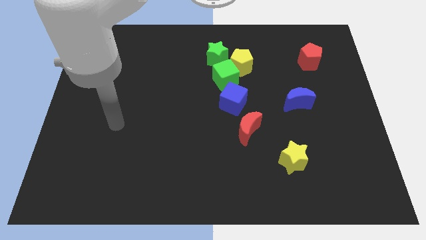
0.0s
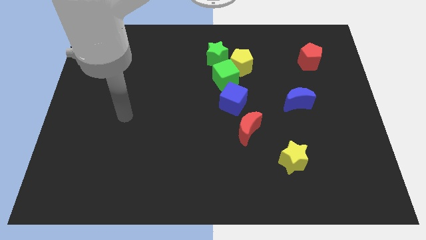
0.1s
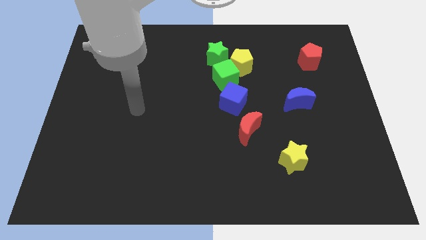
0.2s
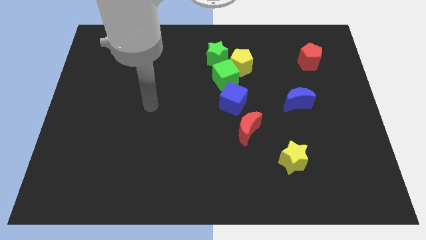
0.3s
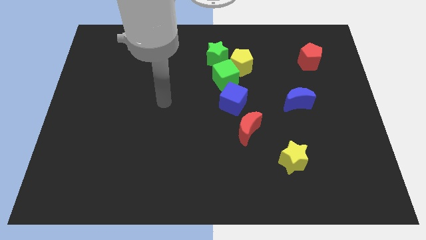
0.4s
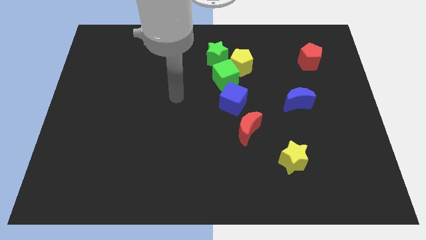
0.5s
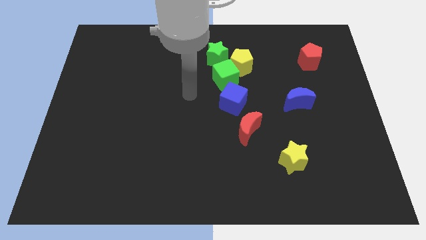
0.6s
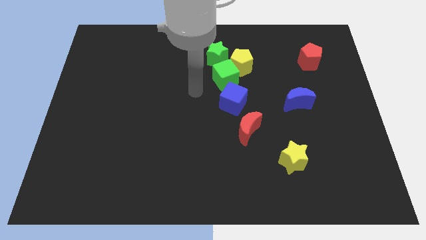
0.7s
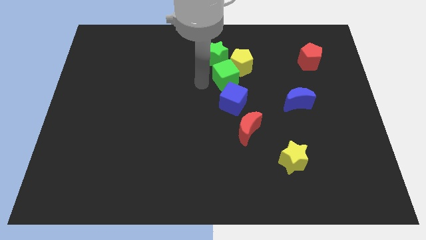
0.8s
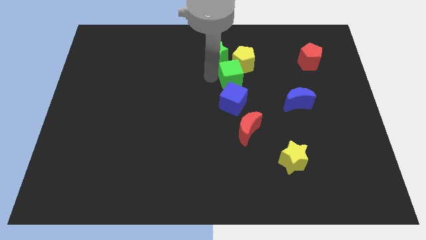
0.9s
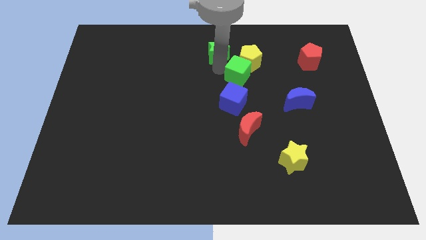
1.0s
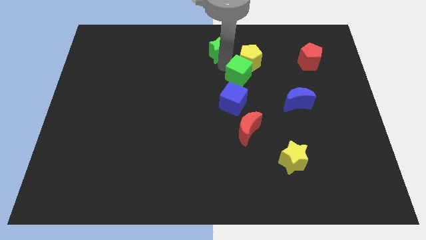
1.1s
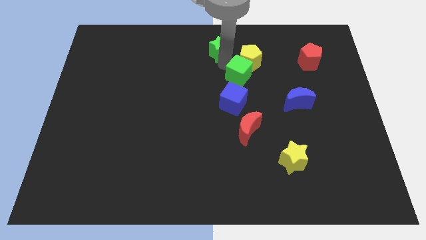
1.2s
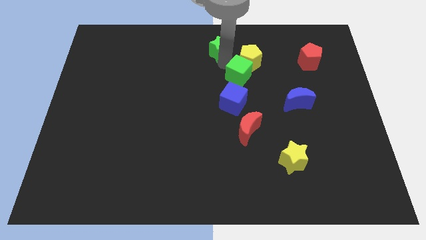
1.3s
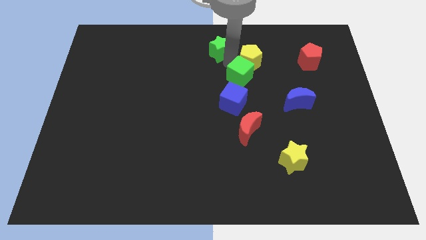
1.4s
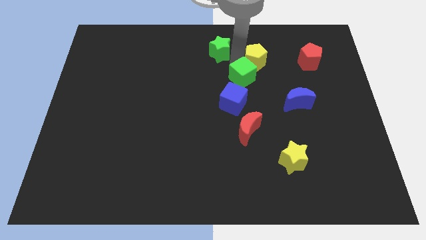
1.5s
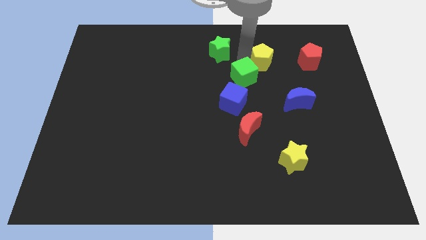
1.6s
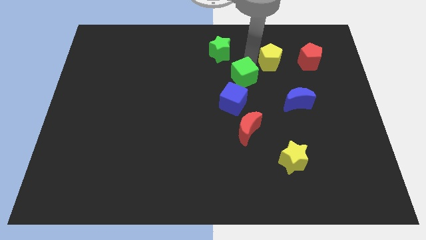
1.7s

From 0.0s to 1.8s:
pull the yellow pentagon apart from the green cube and green star

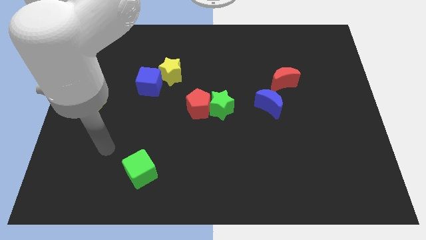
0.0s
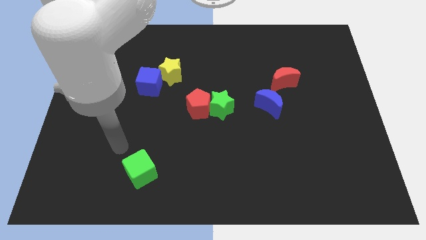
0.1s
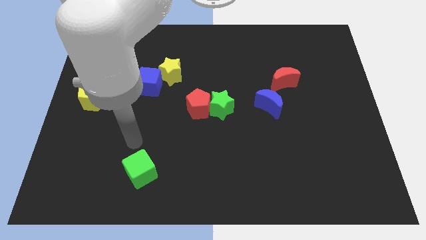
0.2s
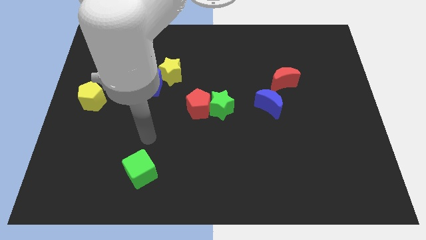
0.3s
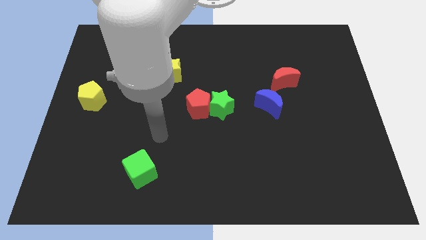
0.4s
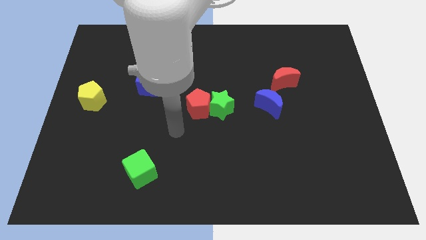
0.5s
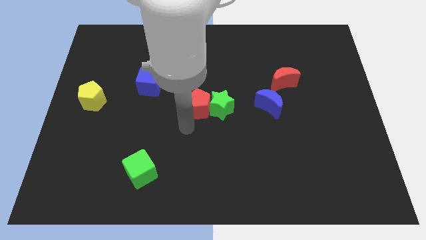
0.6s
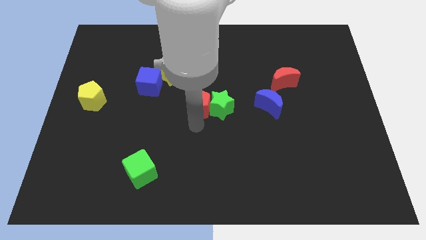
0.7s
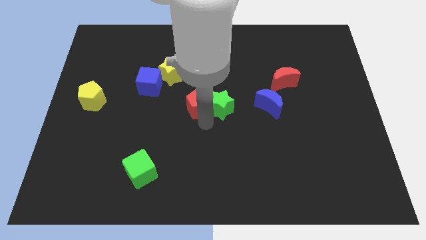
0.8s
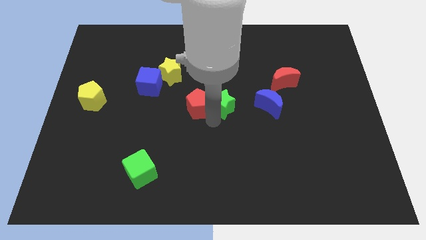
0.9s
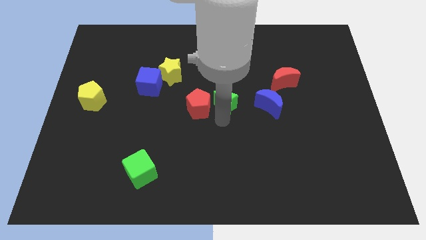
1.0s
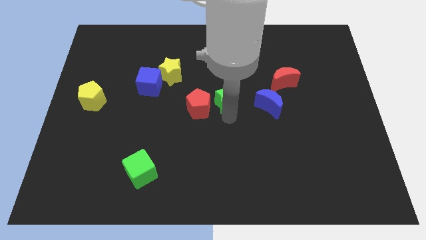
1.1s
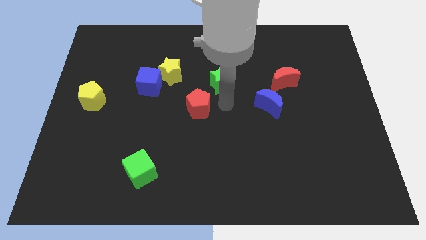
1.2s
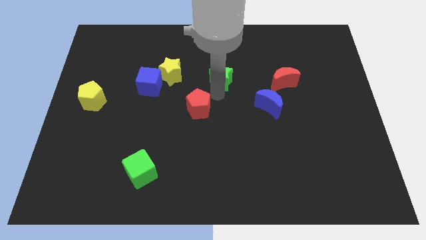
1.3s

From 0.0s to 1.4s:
separate the red pentagon from the green star

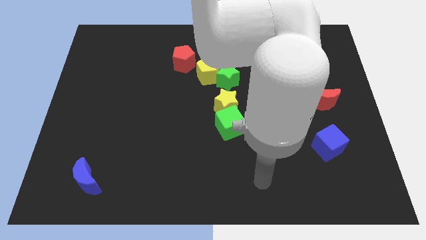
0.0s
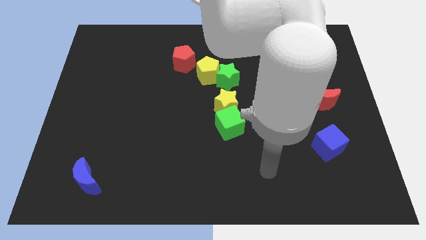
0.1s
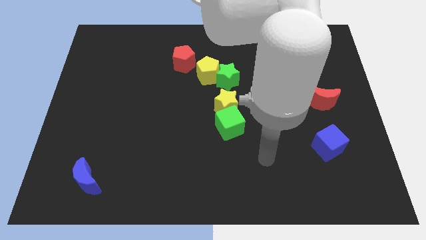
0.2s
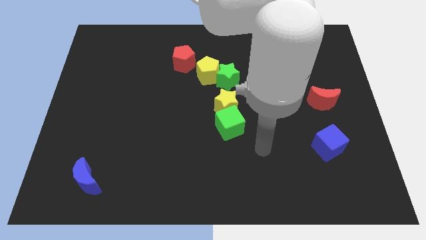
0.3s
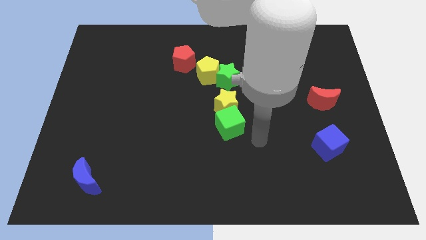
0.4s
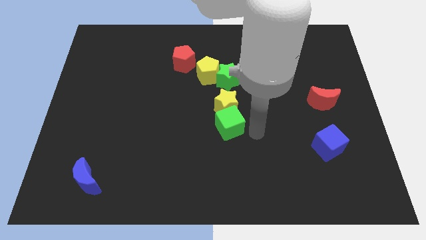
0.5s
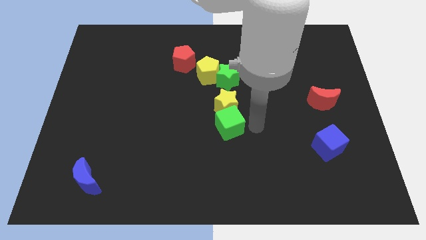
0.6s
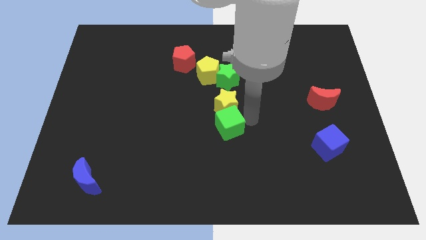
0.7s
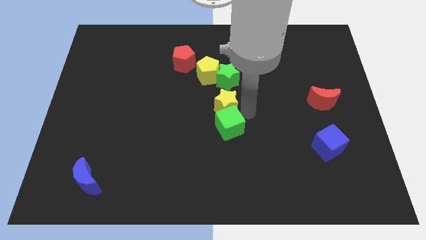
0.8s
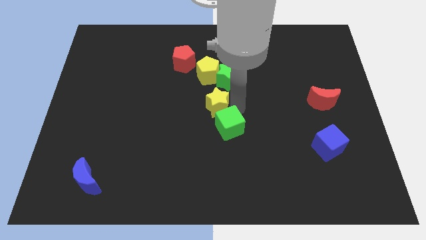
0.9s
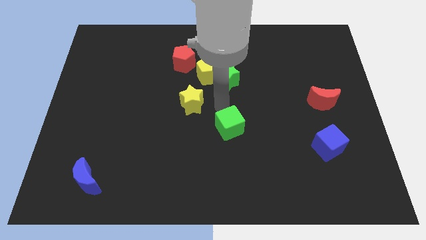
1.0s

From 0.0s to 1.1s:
move the green cube away from the yellow star

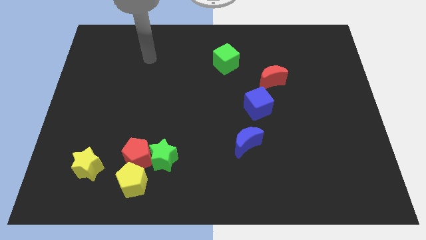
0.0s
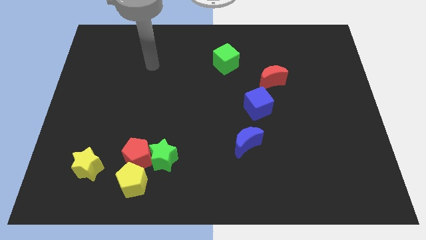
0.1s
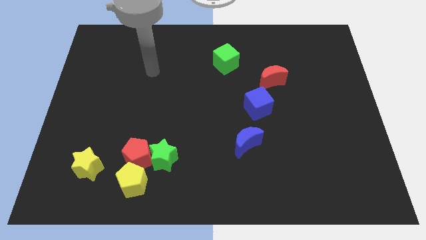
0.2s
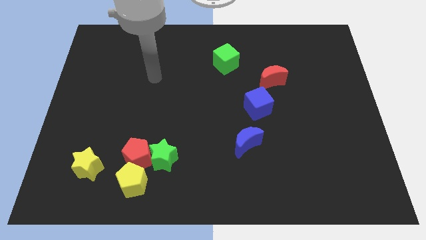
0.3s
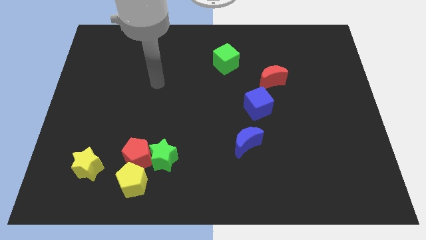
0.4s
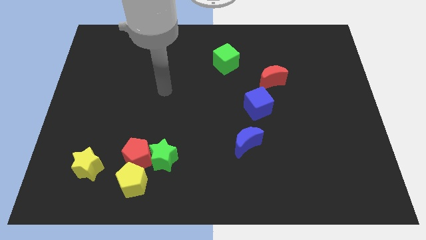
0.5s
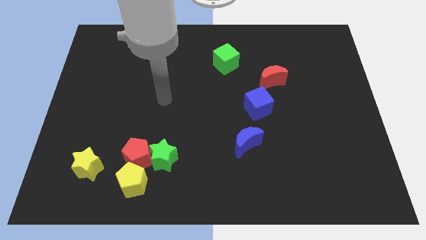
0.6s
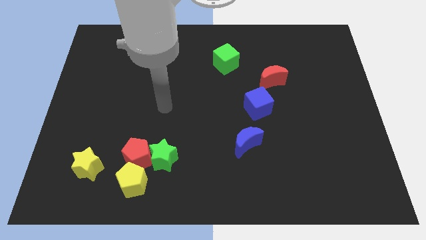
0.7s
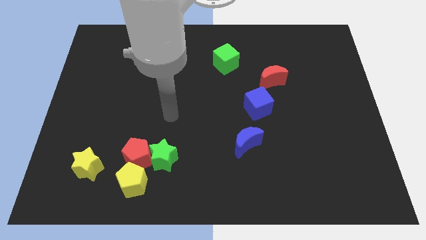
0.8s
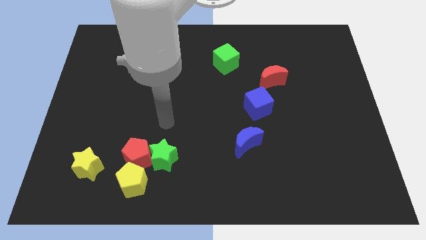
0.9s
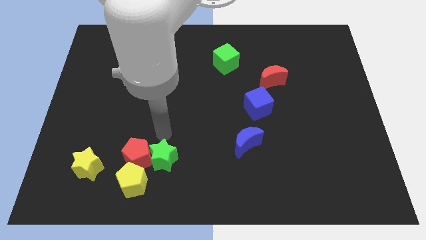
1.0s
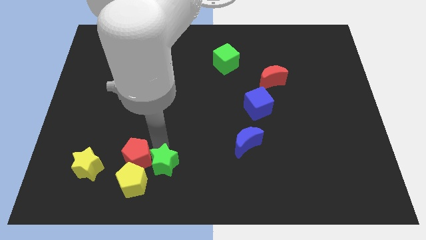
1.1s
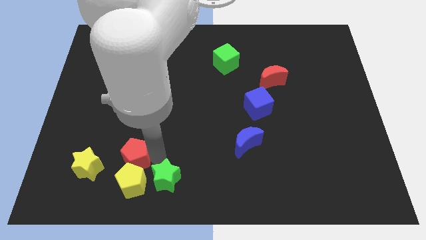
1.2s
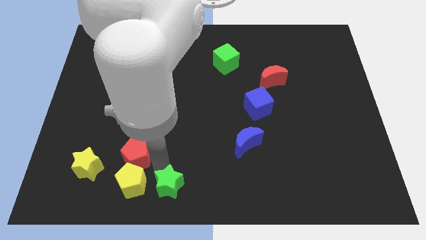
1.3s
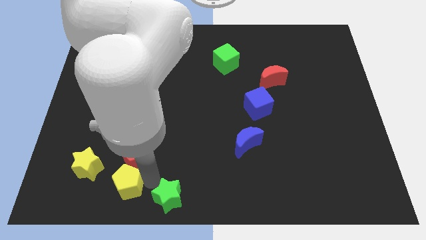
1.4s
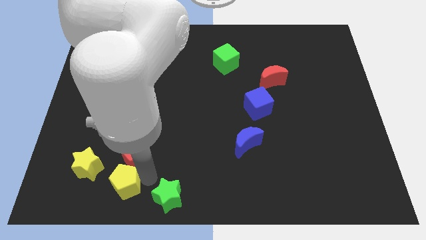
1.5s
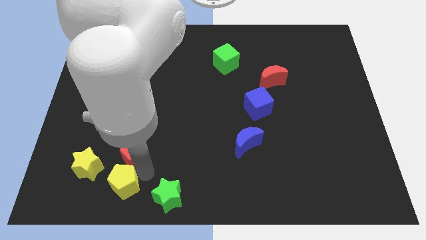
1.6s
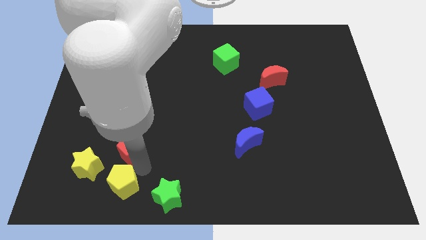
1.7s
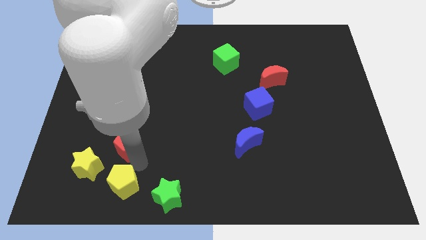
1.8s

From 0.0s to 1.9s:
separate the red pentagon from the green star and yellow pentagon

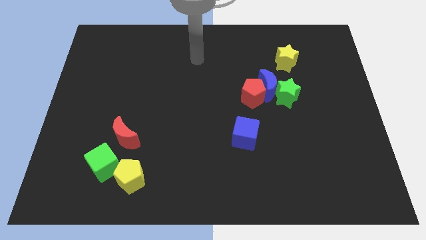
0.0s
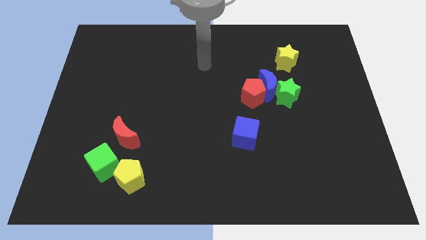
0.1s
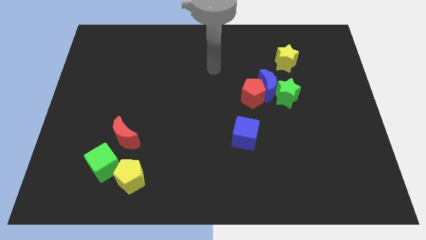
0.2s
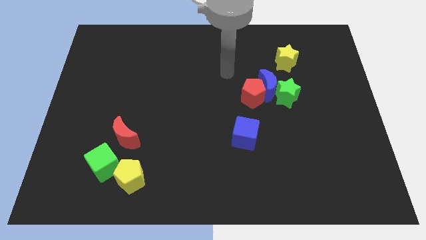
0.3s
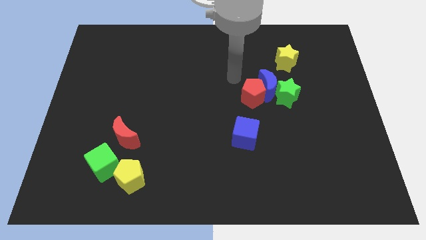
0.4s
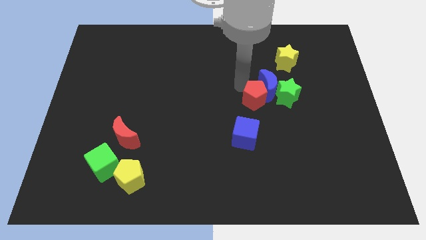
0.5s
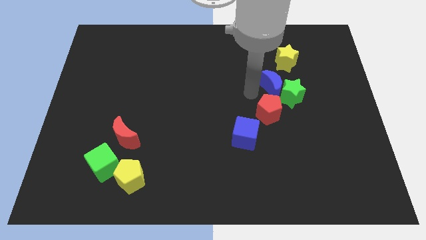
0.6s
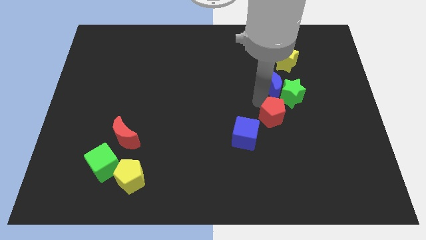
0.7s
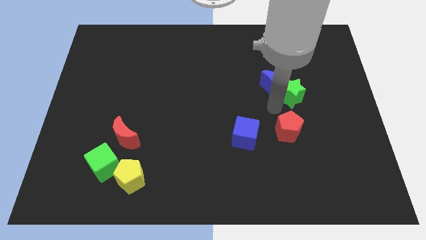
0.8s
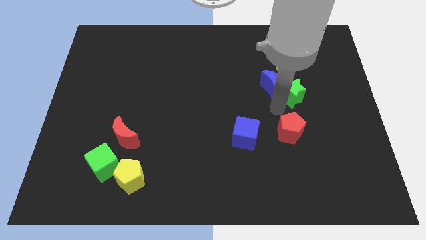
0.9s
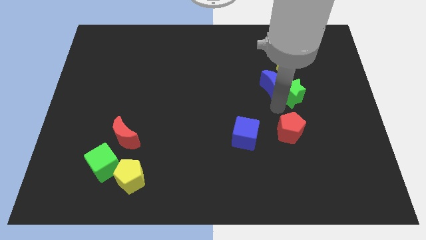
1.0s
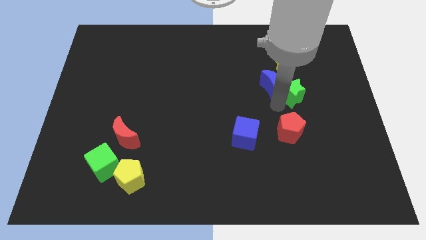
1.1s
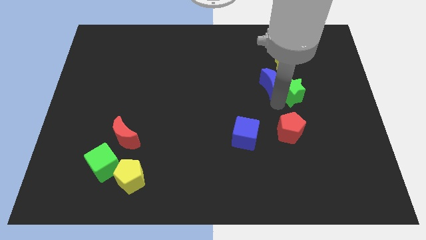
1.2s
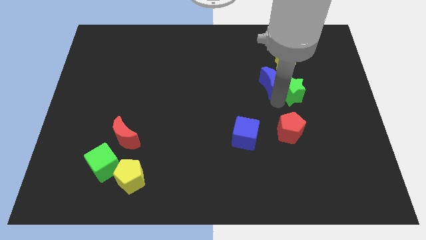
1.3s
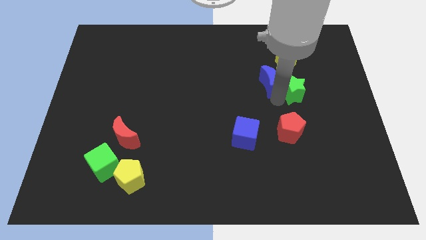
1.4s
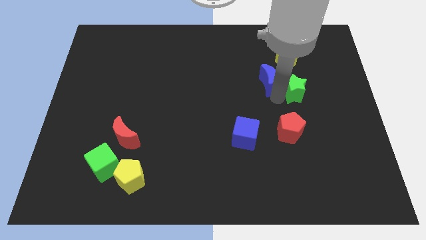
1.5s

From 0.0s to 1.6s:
pull the blue moon apart from the red pentagon and green star

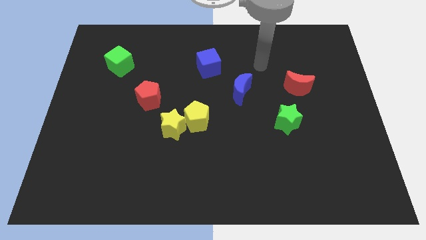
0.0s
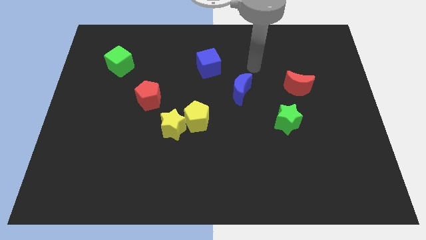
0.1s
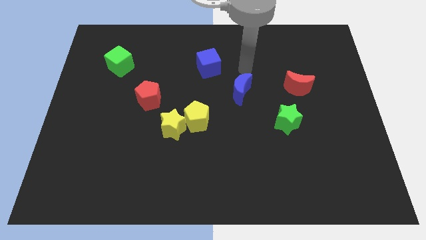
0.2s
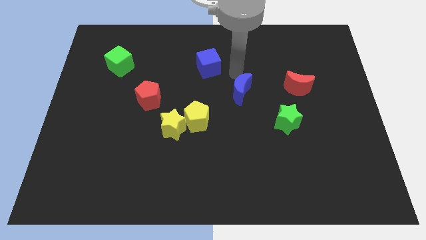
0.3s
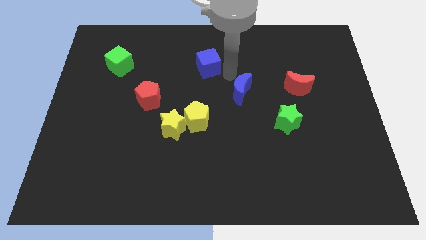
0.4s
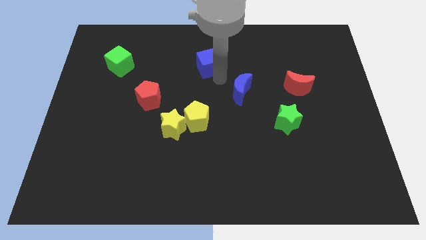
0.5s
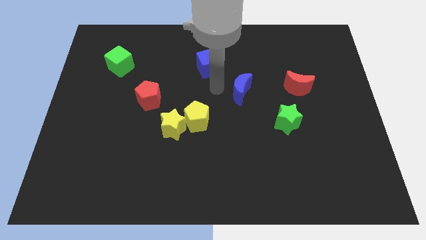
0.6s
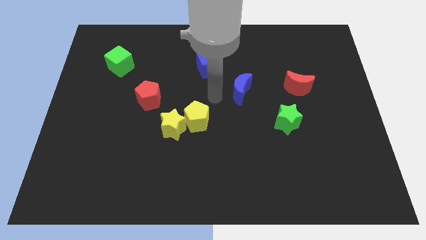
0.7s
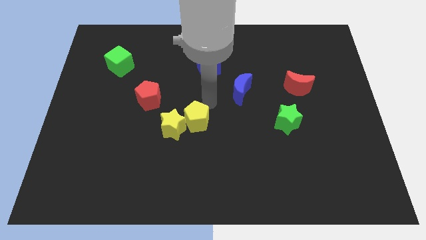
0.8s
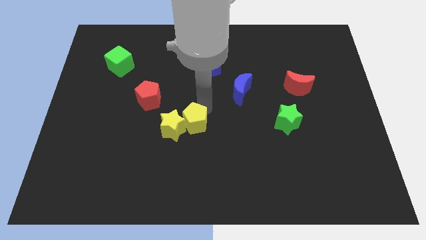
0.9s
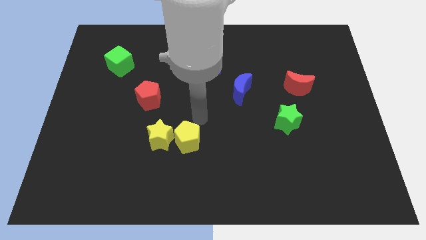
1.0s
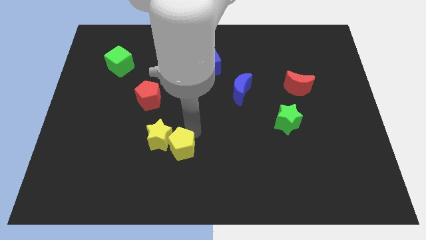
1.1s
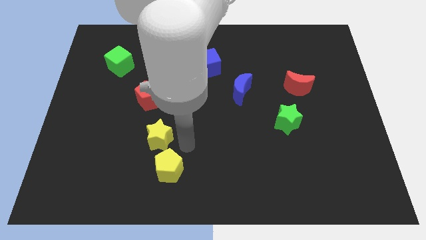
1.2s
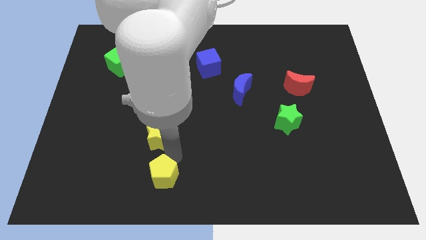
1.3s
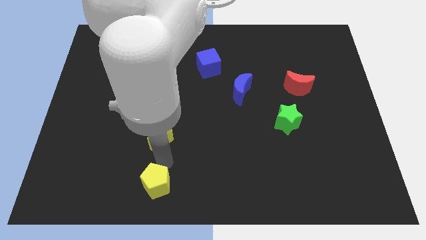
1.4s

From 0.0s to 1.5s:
move the yellow star away from the yellow pentagon
